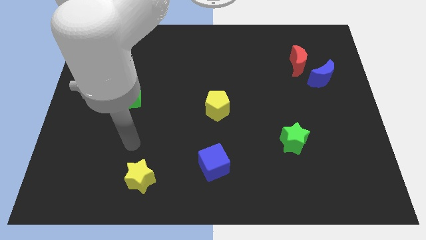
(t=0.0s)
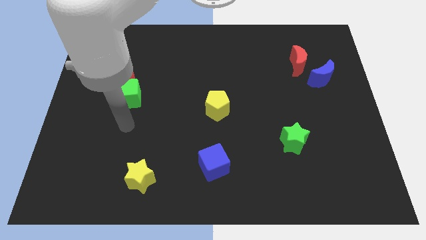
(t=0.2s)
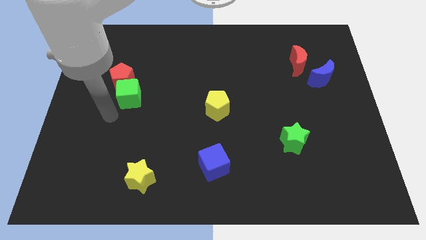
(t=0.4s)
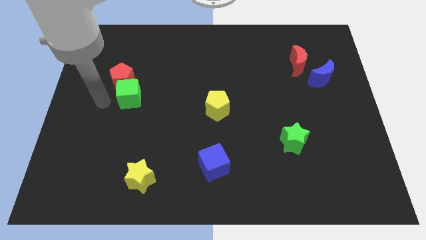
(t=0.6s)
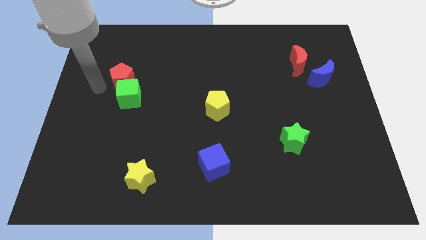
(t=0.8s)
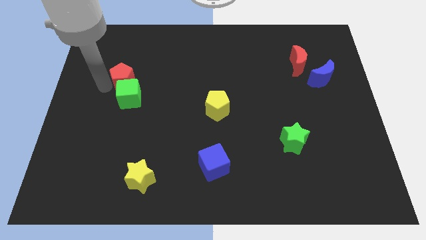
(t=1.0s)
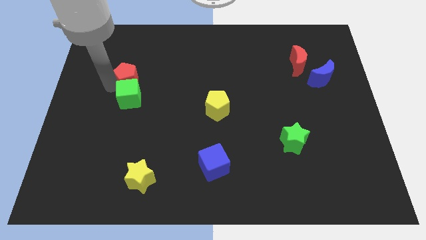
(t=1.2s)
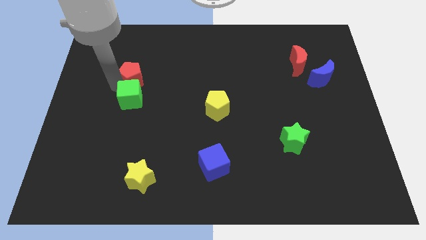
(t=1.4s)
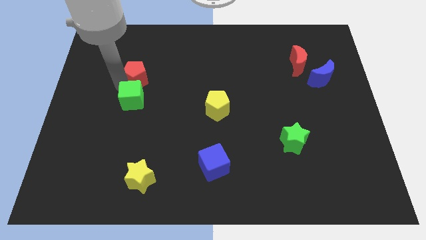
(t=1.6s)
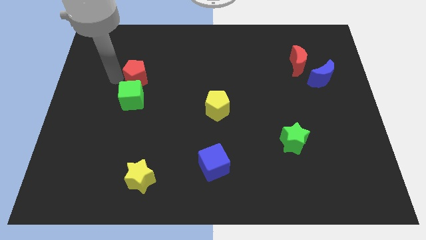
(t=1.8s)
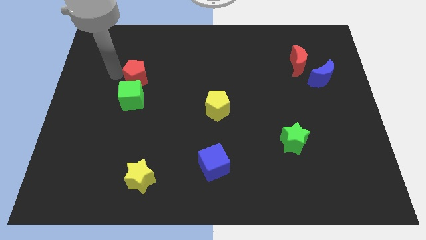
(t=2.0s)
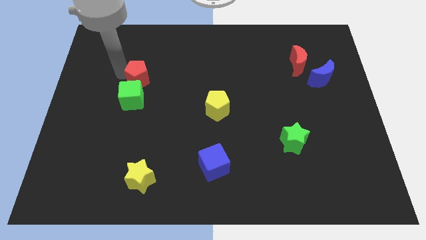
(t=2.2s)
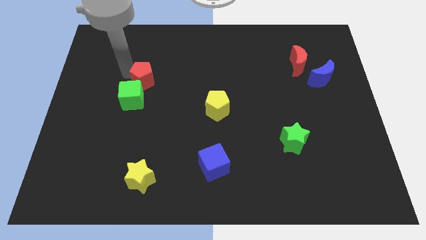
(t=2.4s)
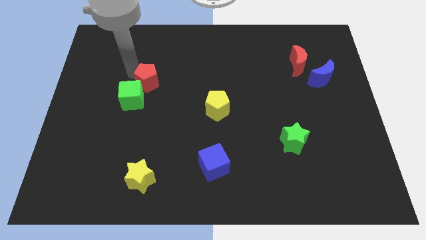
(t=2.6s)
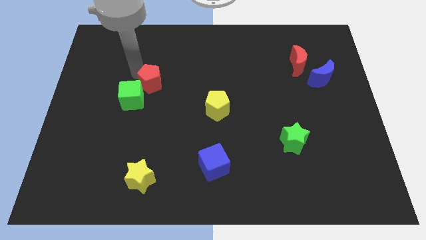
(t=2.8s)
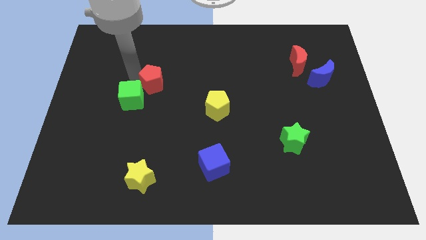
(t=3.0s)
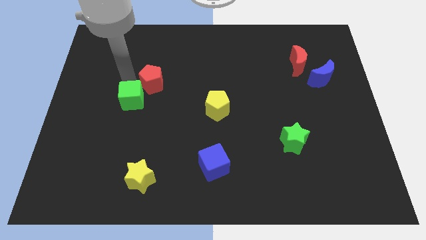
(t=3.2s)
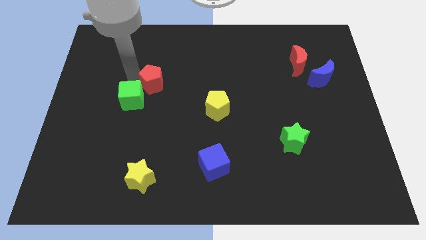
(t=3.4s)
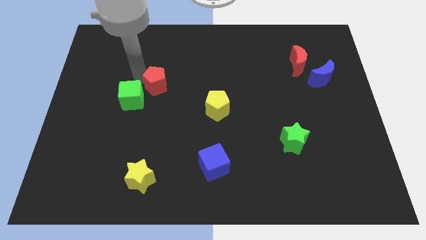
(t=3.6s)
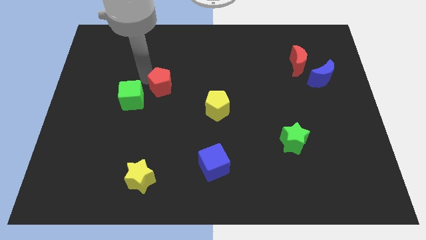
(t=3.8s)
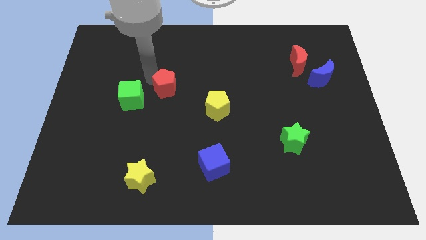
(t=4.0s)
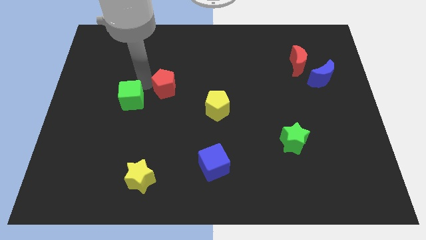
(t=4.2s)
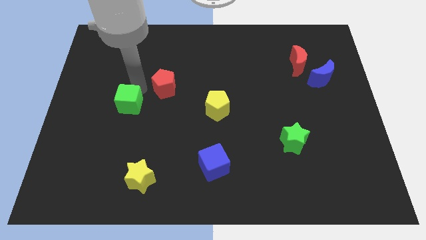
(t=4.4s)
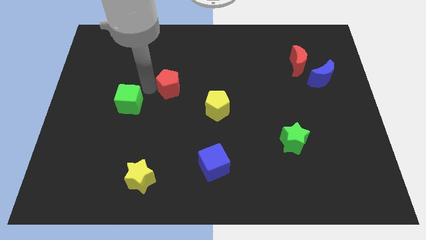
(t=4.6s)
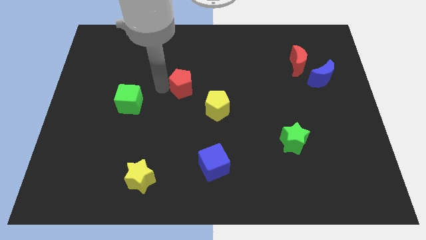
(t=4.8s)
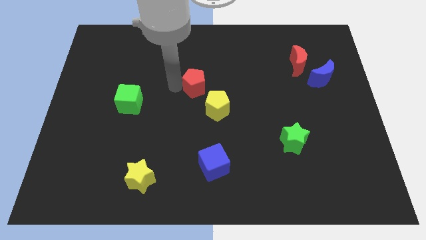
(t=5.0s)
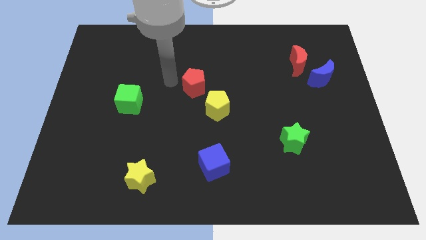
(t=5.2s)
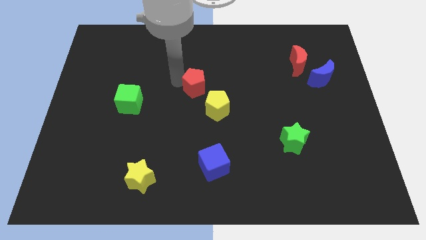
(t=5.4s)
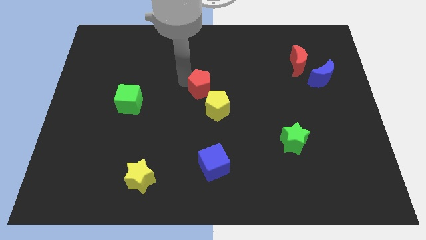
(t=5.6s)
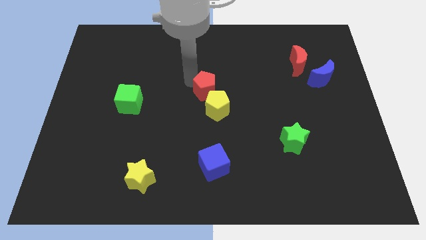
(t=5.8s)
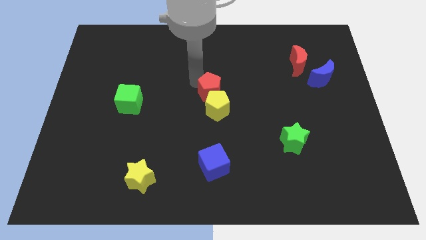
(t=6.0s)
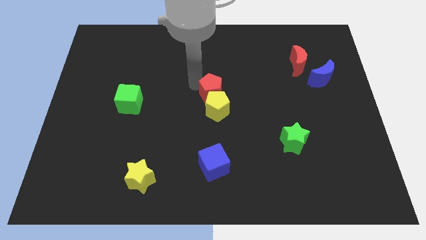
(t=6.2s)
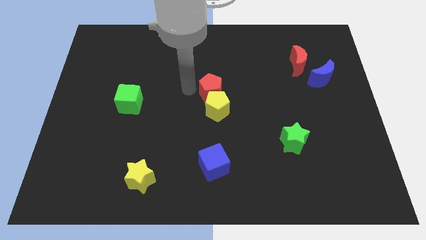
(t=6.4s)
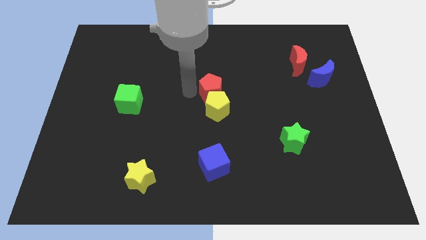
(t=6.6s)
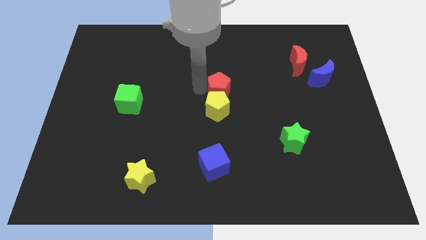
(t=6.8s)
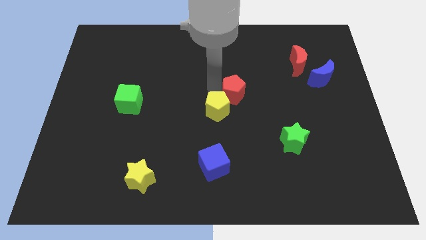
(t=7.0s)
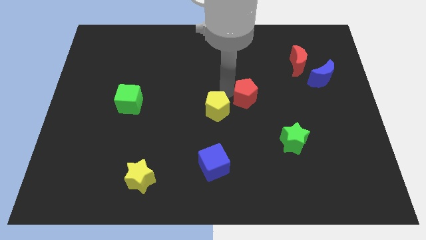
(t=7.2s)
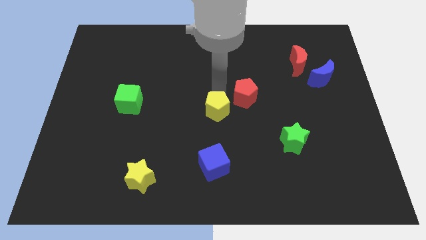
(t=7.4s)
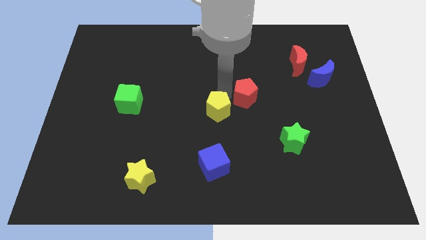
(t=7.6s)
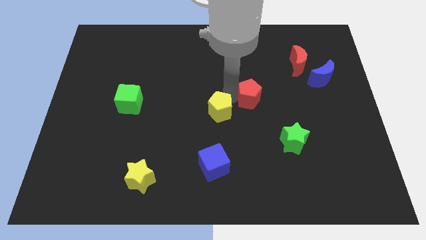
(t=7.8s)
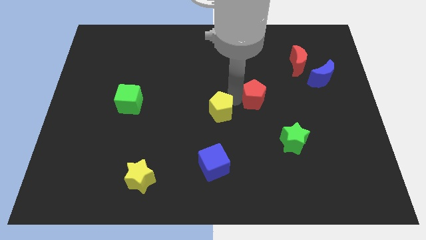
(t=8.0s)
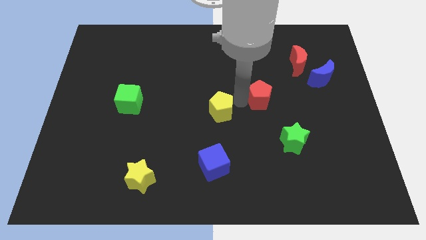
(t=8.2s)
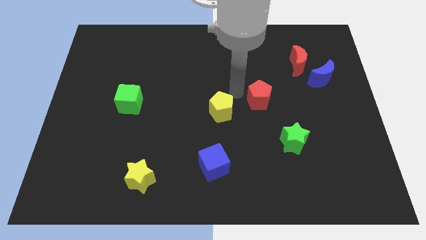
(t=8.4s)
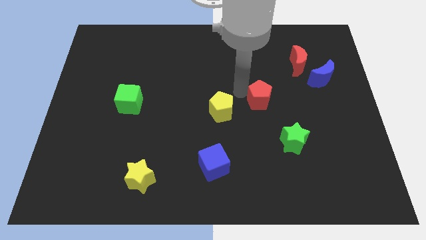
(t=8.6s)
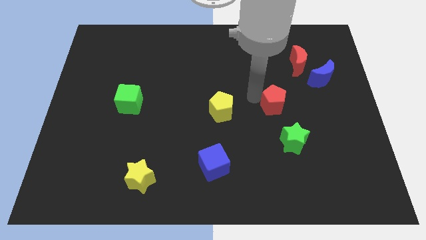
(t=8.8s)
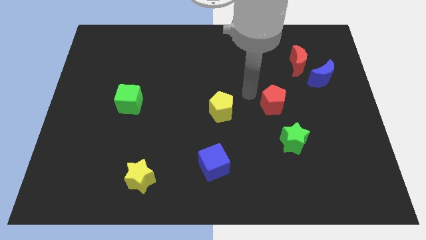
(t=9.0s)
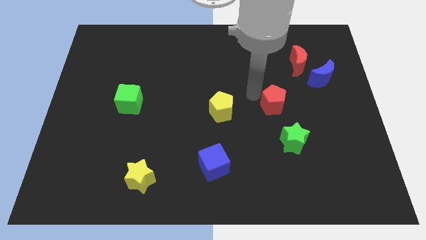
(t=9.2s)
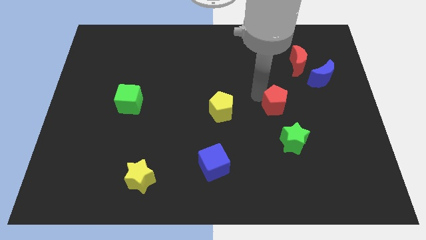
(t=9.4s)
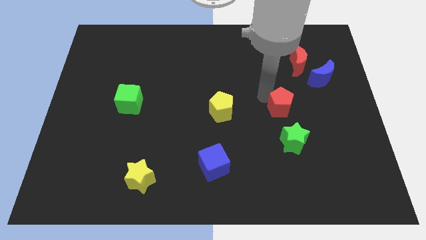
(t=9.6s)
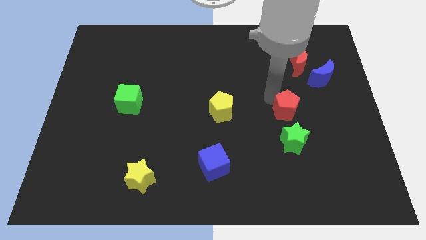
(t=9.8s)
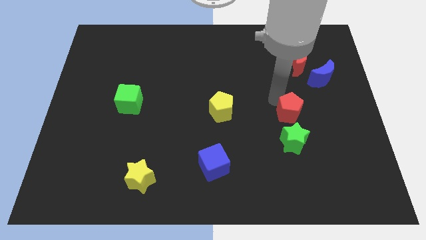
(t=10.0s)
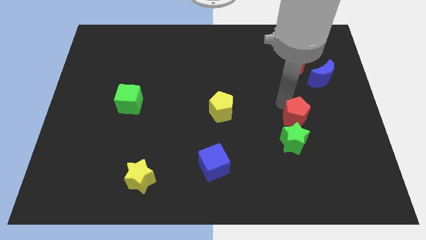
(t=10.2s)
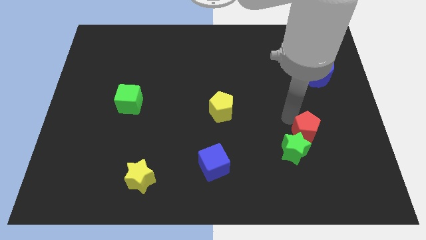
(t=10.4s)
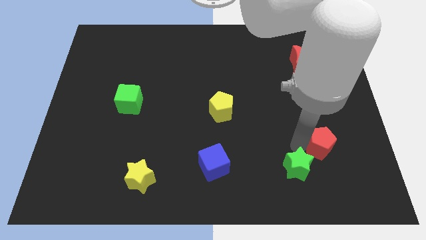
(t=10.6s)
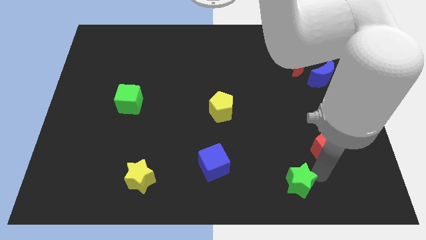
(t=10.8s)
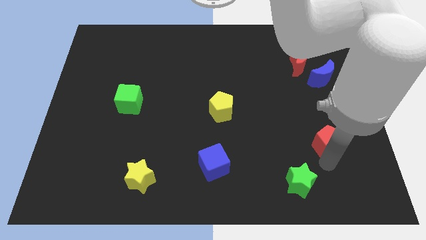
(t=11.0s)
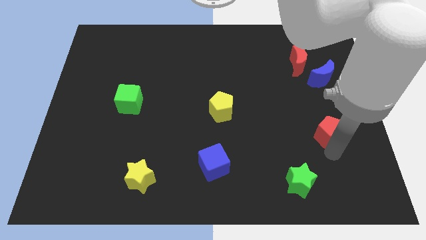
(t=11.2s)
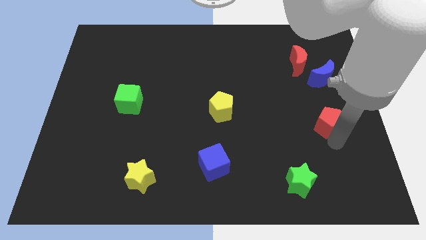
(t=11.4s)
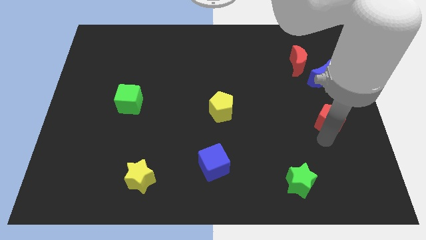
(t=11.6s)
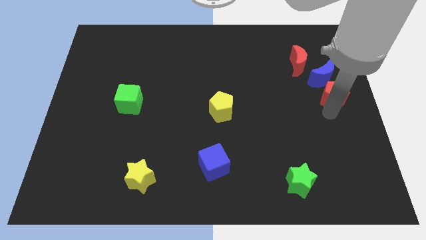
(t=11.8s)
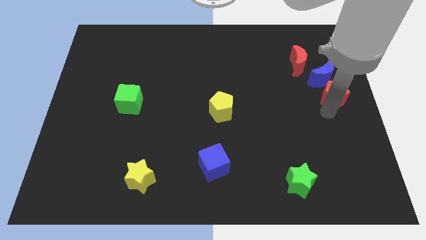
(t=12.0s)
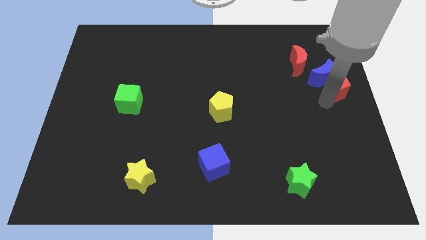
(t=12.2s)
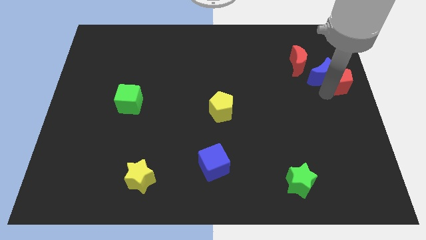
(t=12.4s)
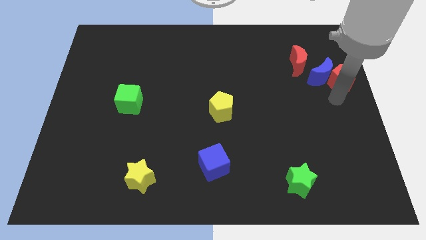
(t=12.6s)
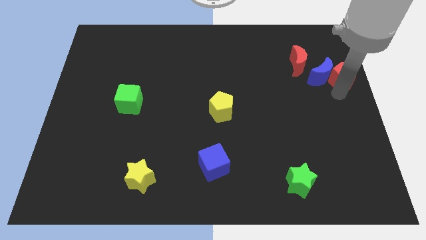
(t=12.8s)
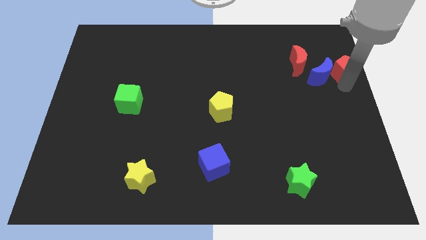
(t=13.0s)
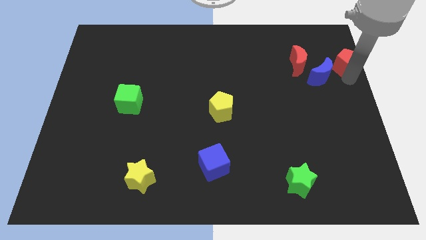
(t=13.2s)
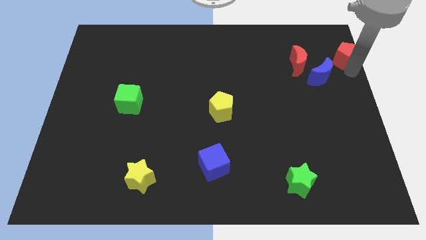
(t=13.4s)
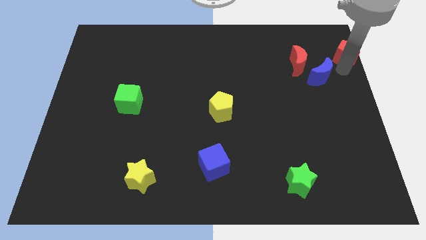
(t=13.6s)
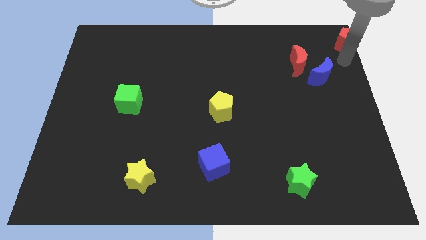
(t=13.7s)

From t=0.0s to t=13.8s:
move the red pentagon to the top right corner

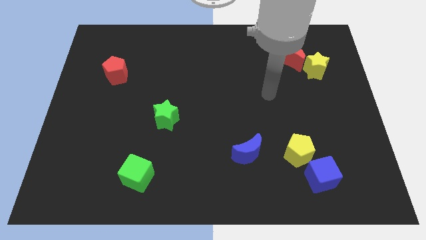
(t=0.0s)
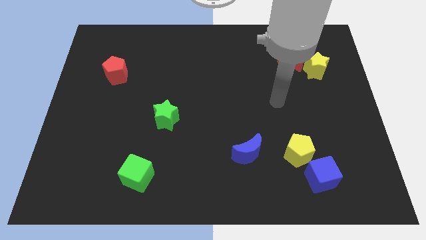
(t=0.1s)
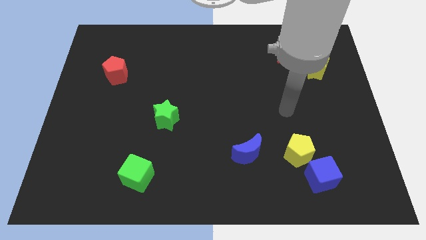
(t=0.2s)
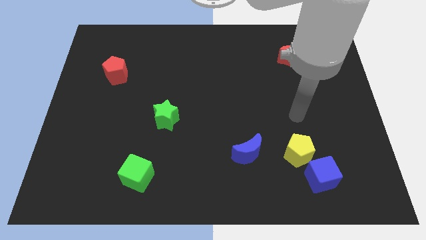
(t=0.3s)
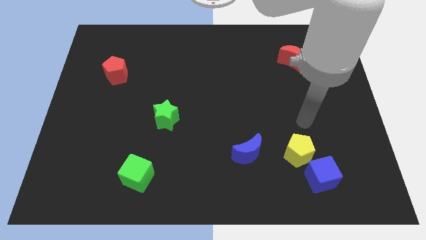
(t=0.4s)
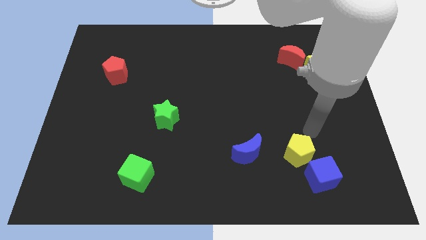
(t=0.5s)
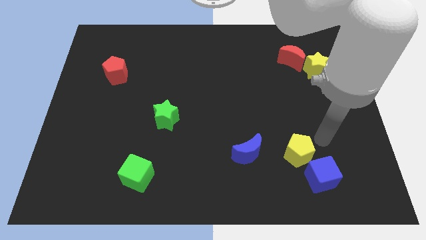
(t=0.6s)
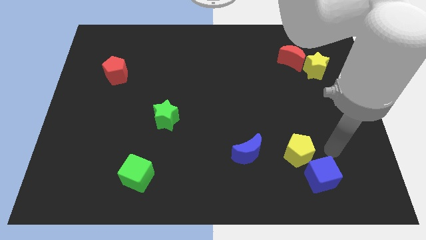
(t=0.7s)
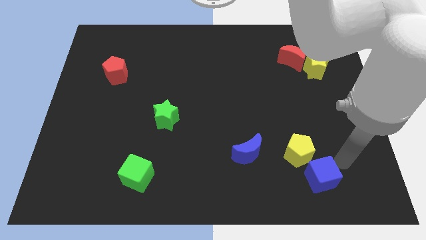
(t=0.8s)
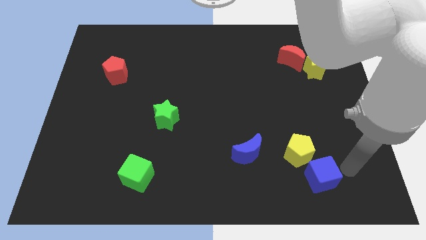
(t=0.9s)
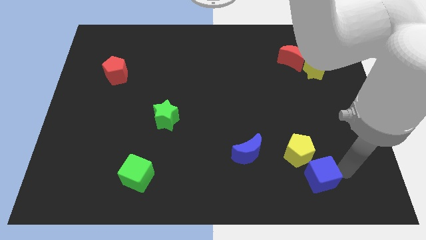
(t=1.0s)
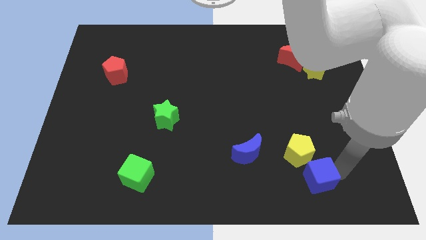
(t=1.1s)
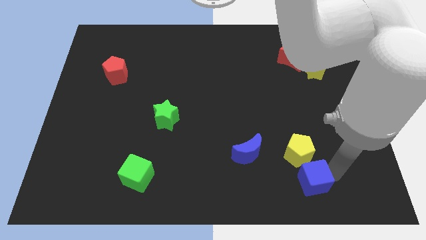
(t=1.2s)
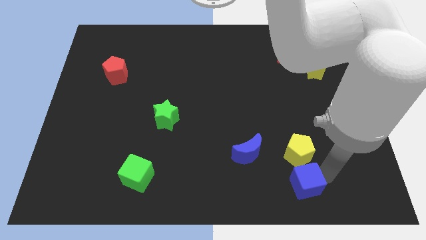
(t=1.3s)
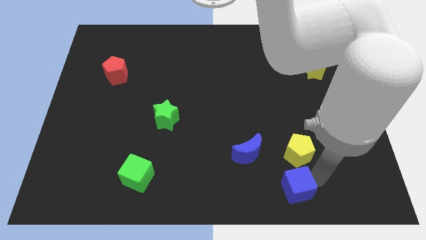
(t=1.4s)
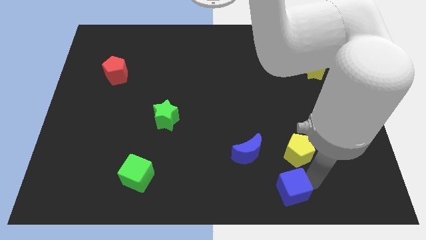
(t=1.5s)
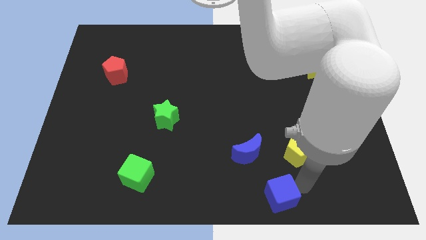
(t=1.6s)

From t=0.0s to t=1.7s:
move the blue cube to the bottom
